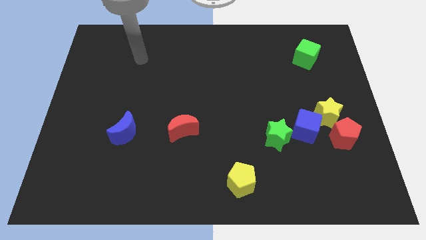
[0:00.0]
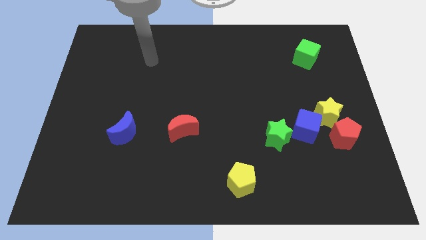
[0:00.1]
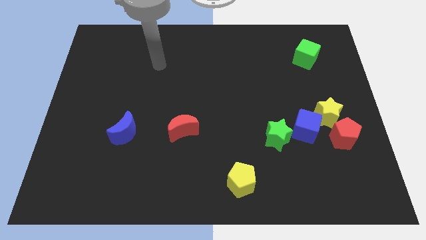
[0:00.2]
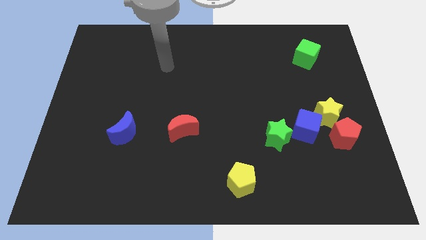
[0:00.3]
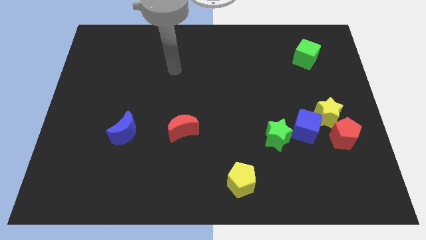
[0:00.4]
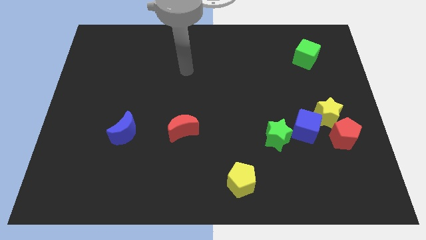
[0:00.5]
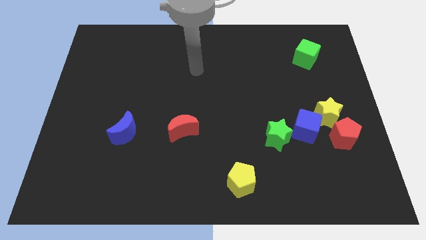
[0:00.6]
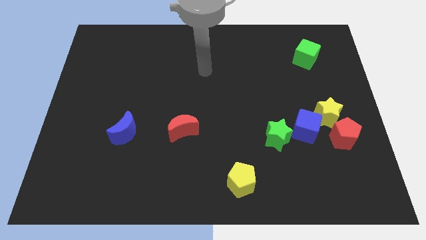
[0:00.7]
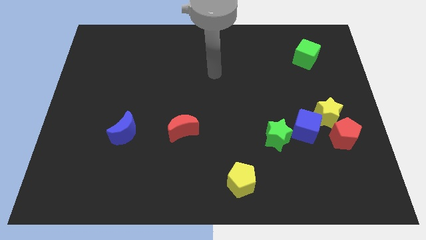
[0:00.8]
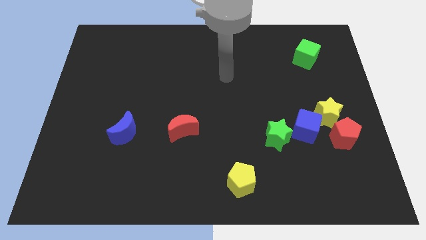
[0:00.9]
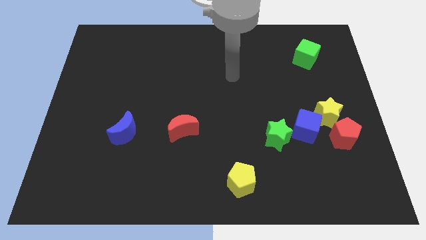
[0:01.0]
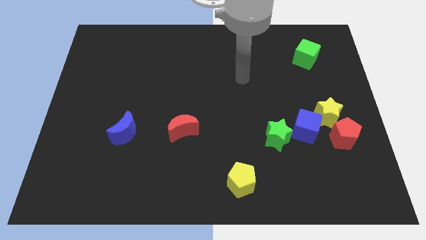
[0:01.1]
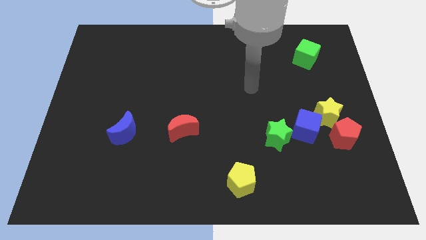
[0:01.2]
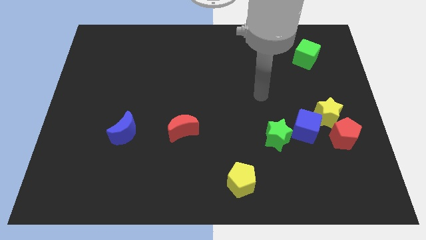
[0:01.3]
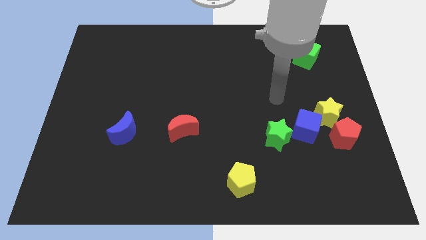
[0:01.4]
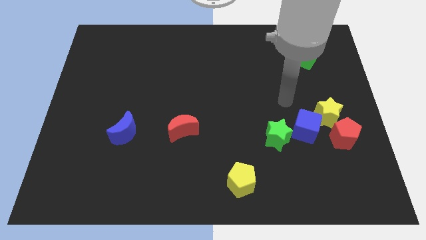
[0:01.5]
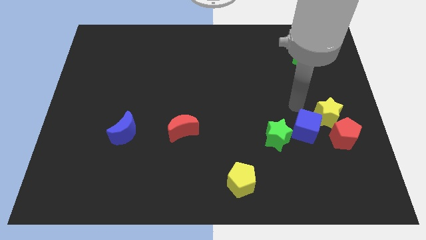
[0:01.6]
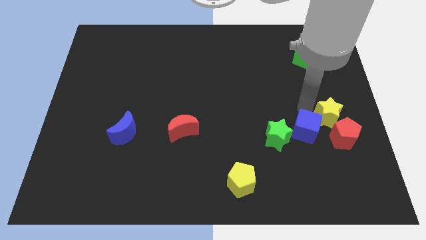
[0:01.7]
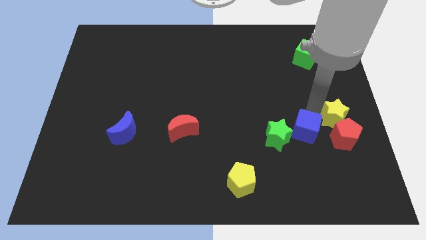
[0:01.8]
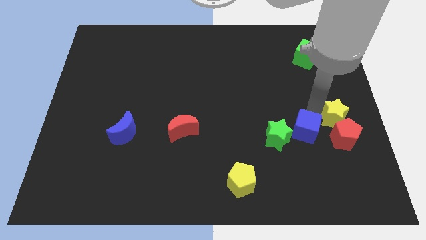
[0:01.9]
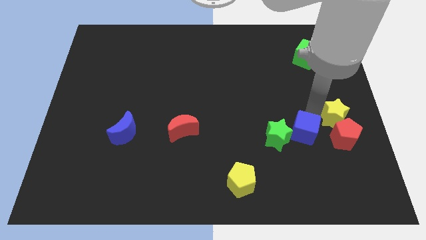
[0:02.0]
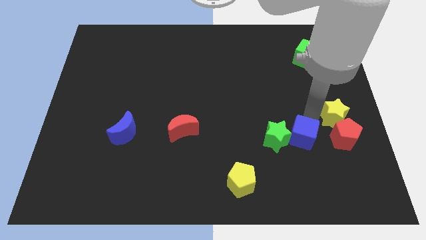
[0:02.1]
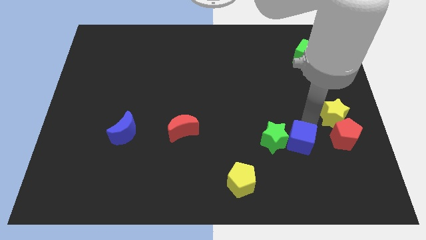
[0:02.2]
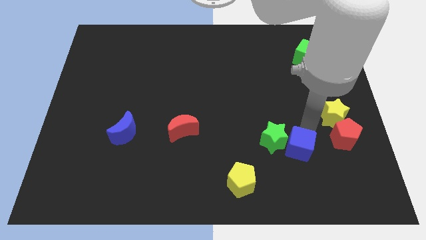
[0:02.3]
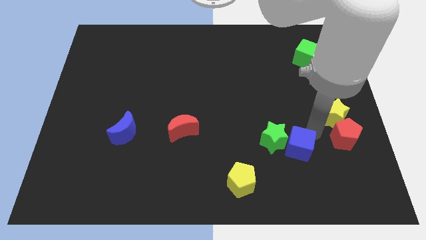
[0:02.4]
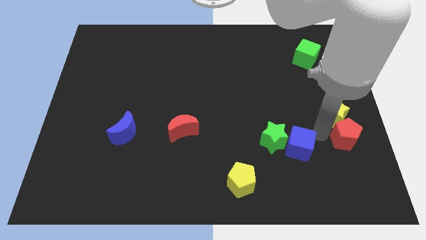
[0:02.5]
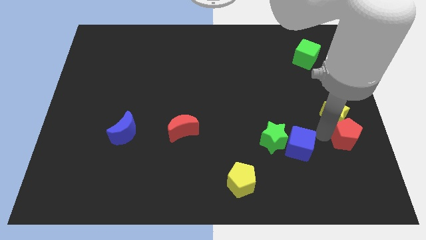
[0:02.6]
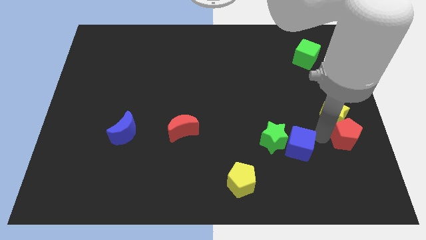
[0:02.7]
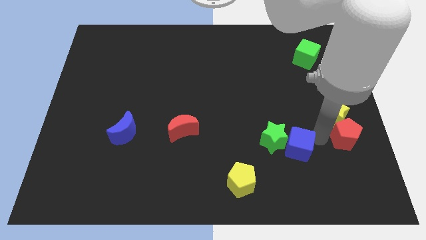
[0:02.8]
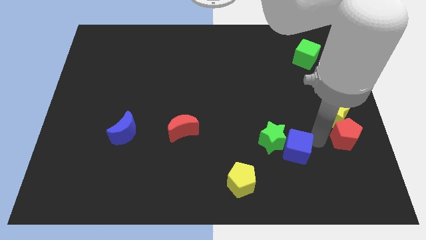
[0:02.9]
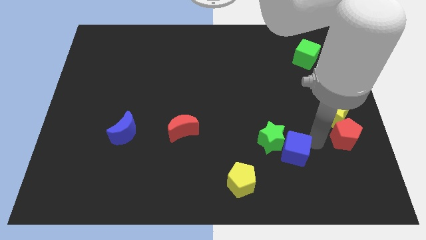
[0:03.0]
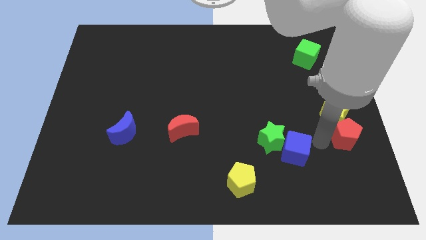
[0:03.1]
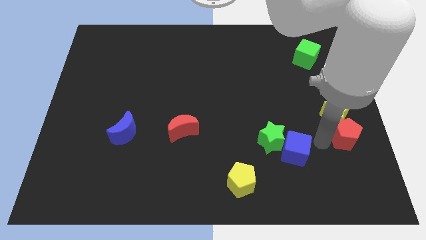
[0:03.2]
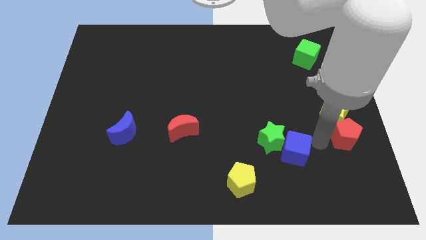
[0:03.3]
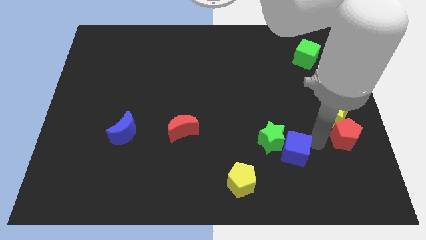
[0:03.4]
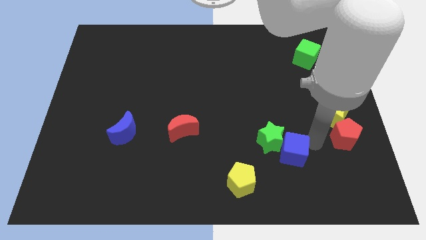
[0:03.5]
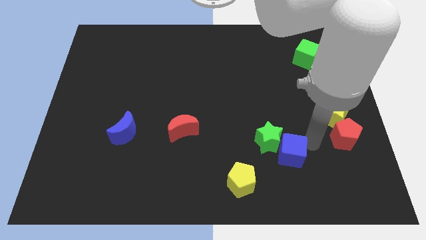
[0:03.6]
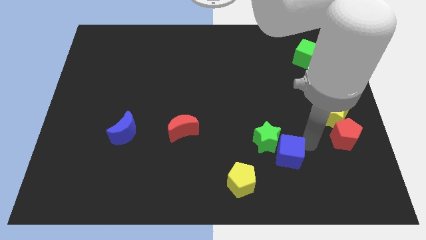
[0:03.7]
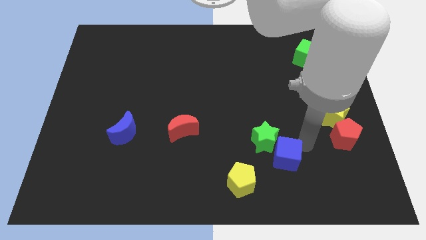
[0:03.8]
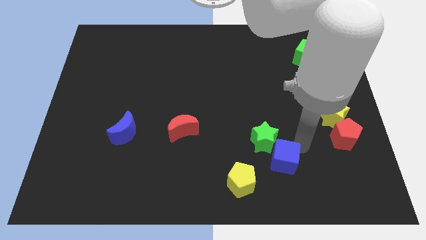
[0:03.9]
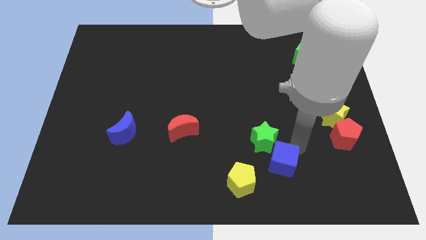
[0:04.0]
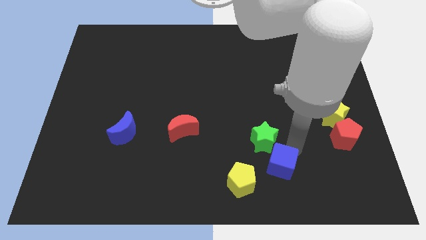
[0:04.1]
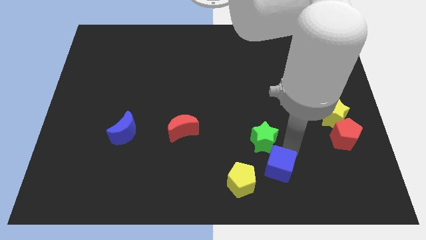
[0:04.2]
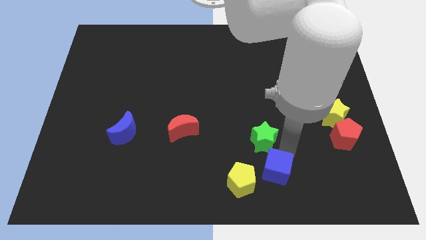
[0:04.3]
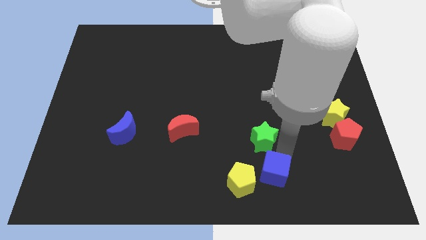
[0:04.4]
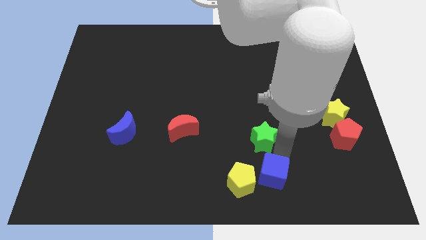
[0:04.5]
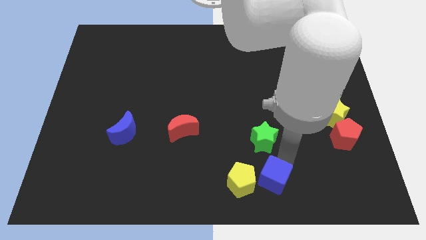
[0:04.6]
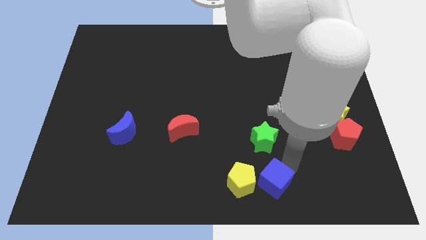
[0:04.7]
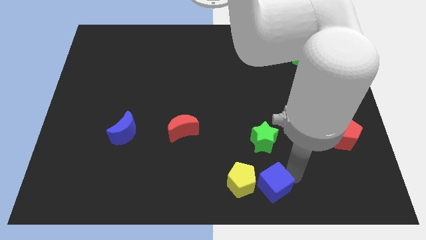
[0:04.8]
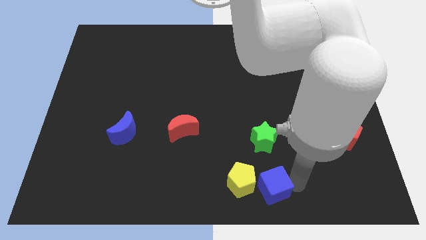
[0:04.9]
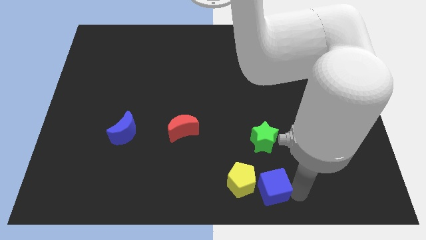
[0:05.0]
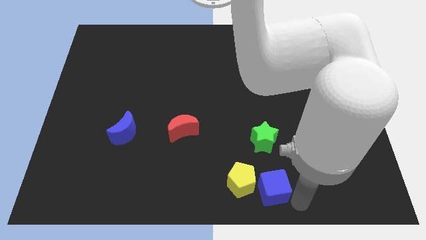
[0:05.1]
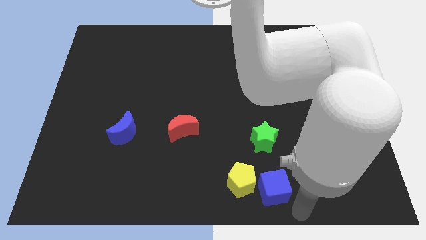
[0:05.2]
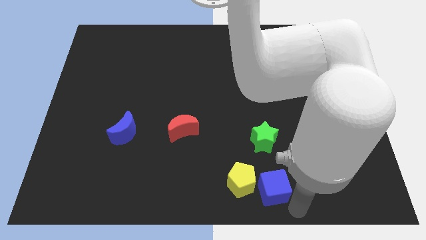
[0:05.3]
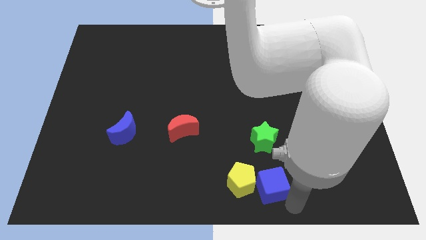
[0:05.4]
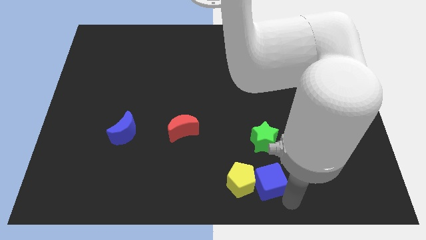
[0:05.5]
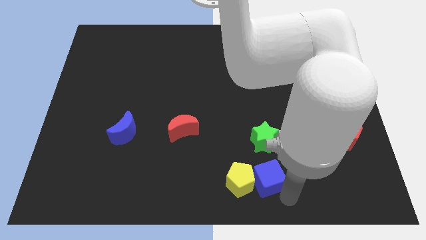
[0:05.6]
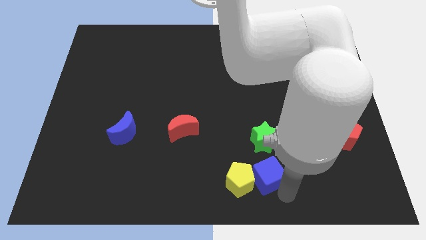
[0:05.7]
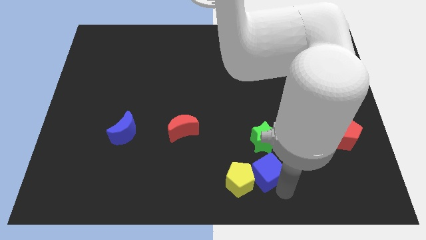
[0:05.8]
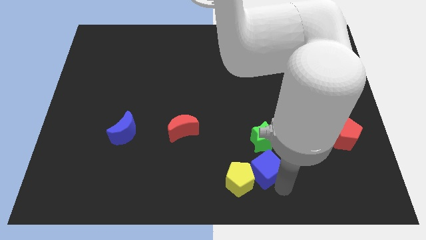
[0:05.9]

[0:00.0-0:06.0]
put the blue cube to the bottom left side of the green star

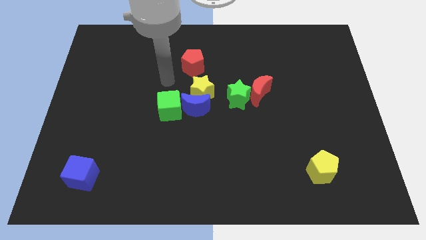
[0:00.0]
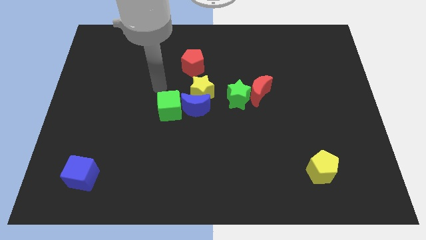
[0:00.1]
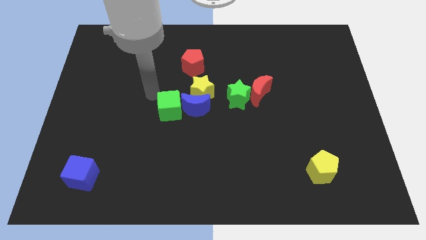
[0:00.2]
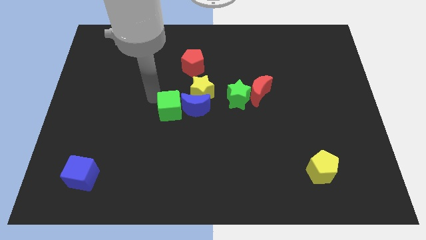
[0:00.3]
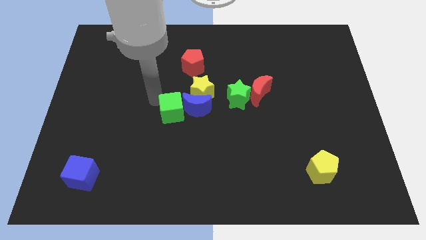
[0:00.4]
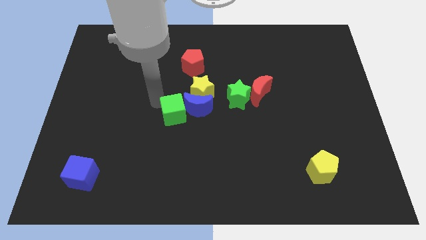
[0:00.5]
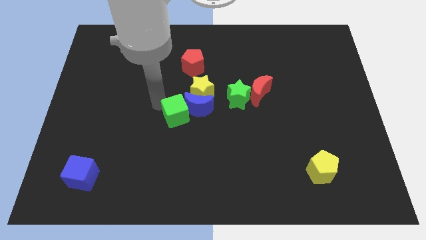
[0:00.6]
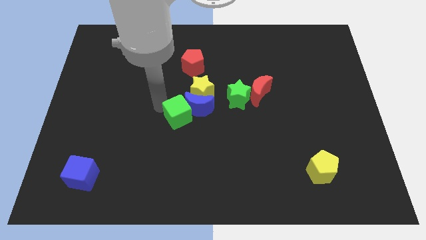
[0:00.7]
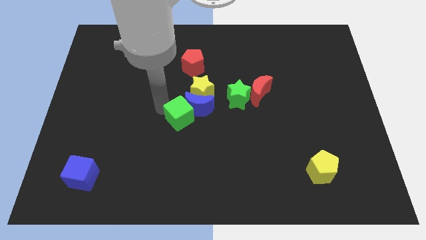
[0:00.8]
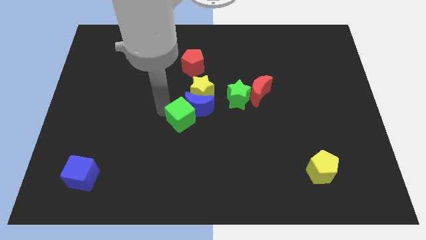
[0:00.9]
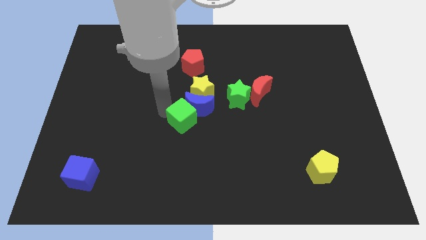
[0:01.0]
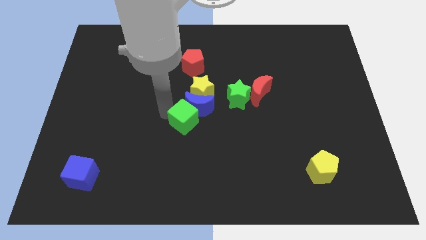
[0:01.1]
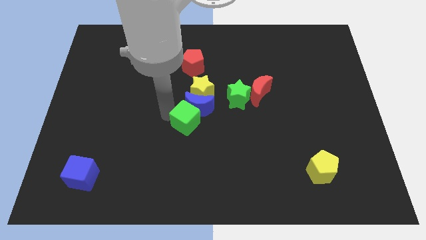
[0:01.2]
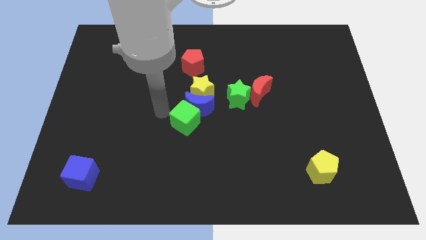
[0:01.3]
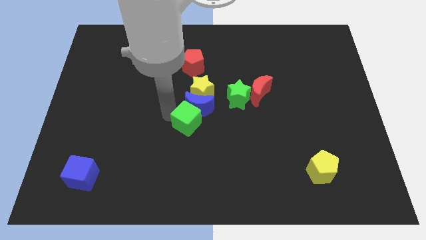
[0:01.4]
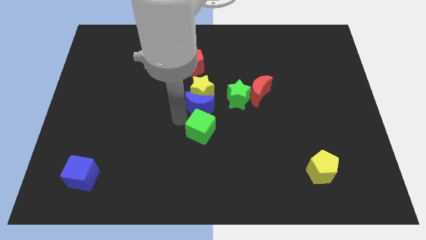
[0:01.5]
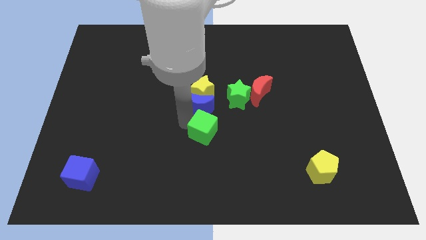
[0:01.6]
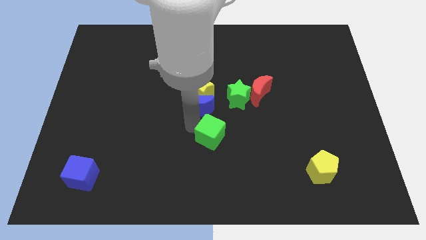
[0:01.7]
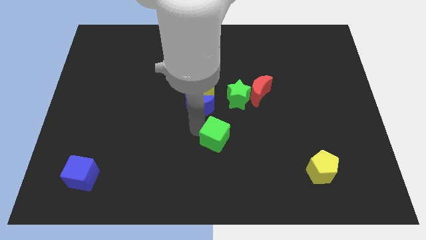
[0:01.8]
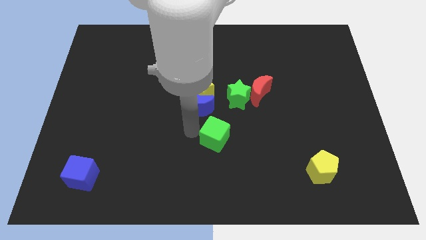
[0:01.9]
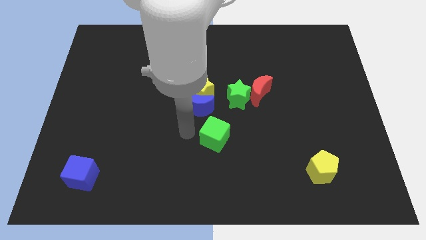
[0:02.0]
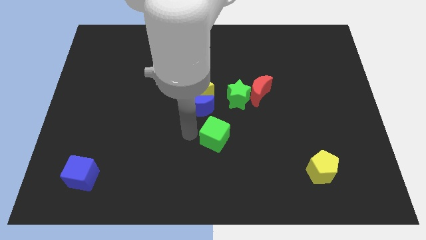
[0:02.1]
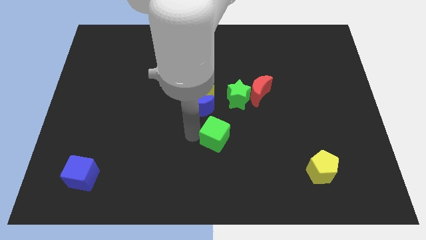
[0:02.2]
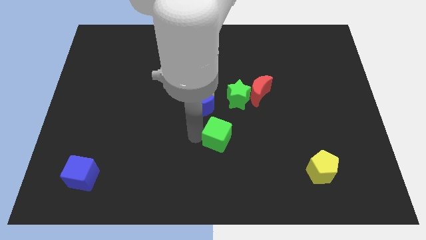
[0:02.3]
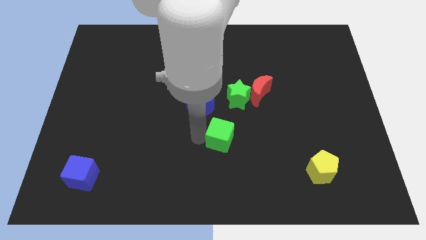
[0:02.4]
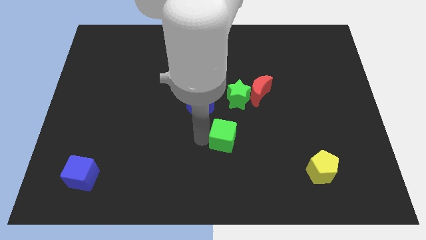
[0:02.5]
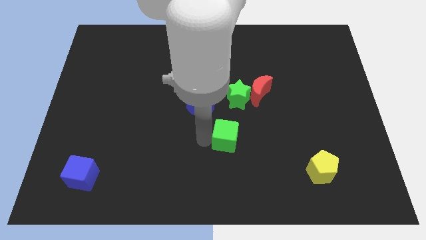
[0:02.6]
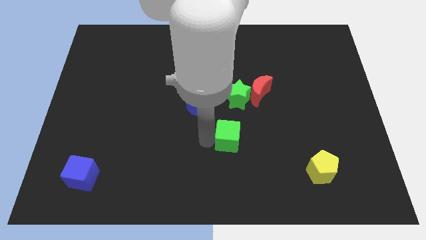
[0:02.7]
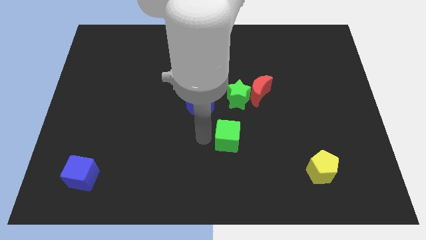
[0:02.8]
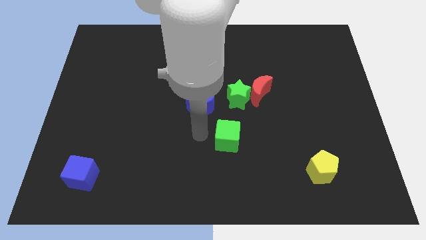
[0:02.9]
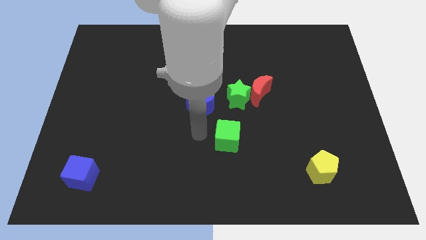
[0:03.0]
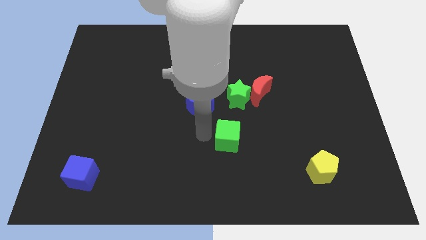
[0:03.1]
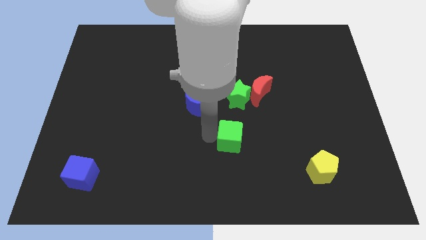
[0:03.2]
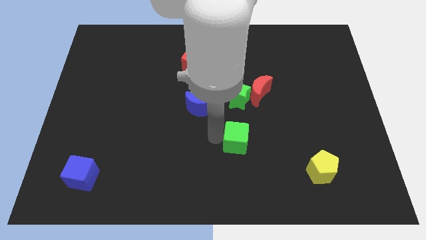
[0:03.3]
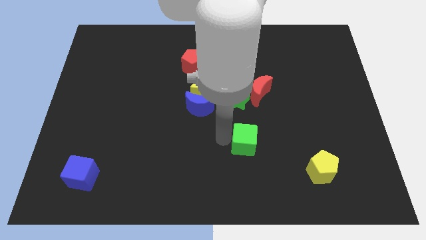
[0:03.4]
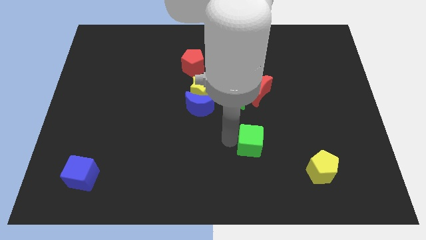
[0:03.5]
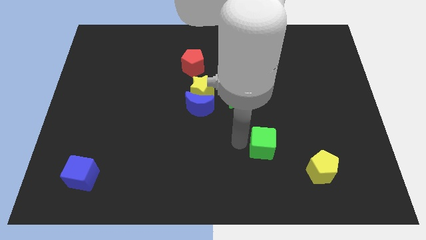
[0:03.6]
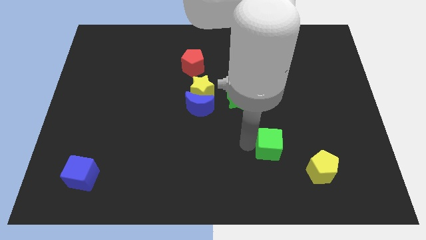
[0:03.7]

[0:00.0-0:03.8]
slide the green cube diagonally up and to the left of the yellow pentagon
